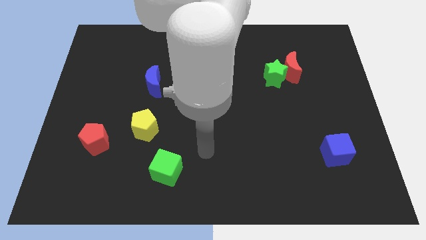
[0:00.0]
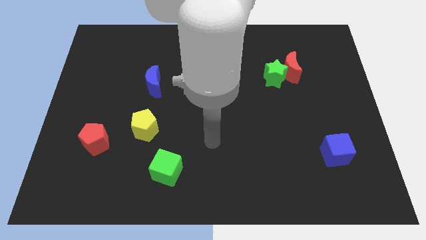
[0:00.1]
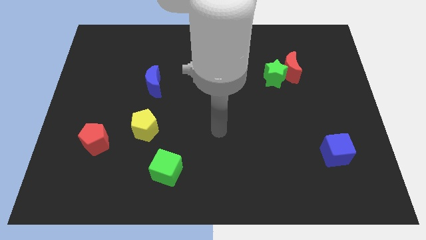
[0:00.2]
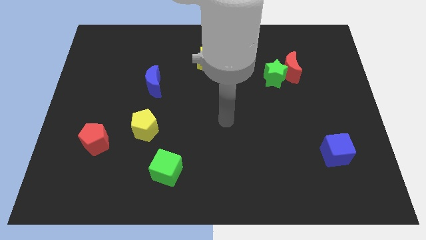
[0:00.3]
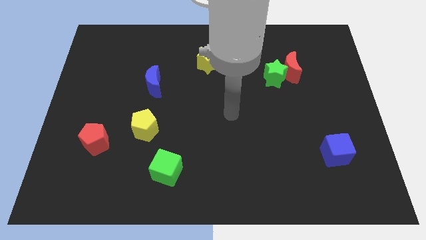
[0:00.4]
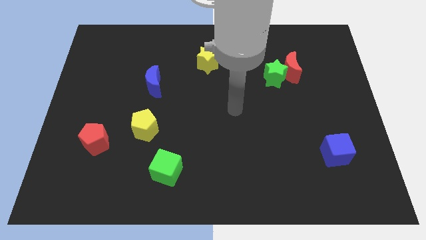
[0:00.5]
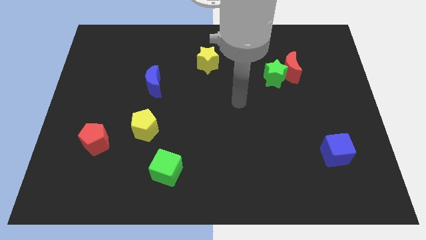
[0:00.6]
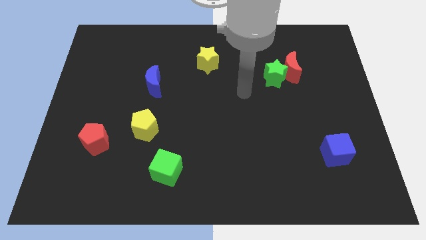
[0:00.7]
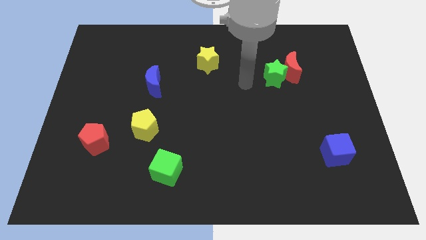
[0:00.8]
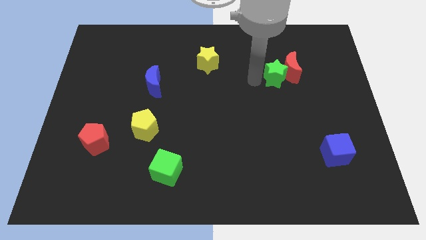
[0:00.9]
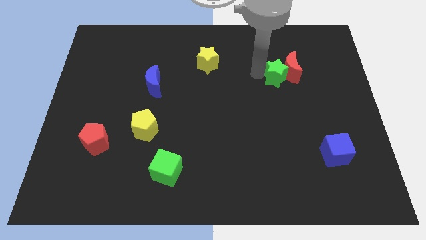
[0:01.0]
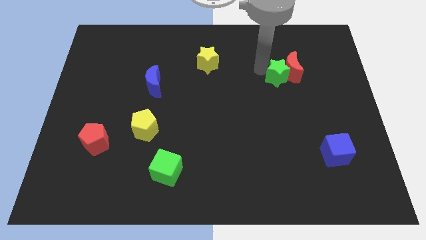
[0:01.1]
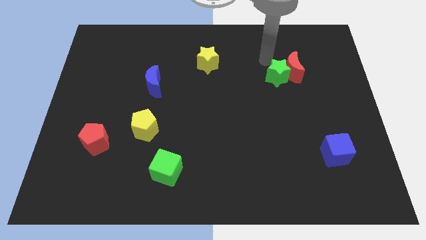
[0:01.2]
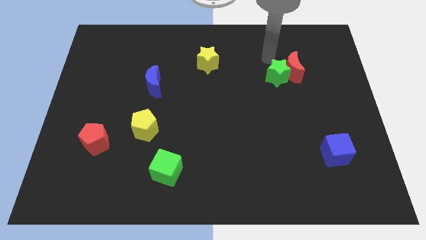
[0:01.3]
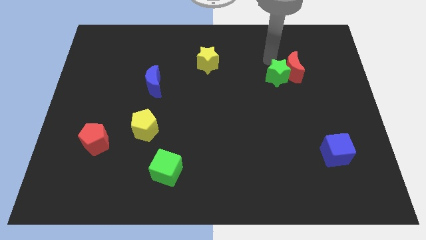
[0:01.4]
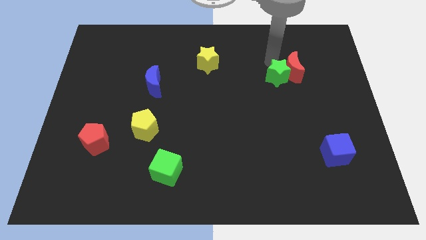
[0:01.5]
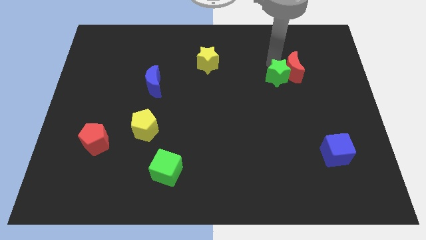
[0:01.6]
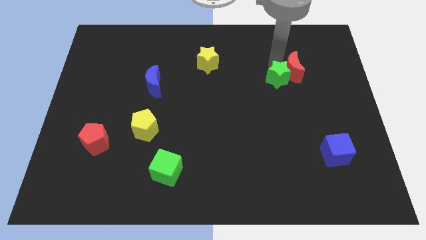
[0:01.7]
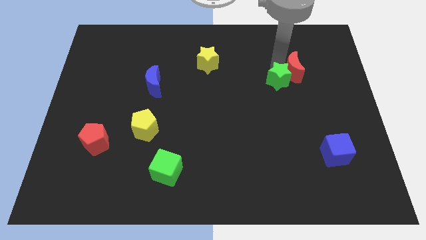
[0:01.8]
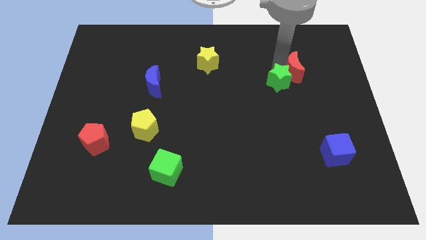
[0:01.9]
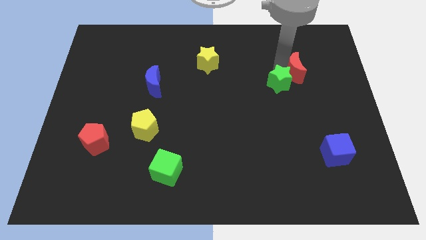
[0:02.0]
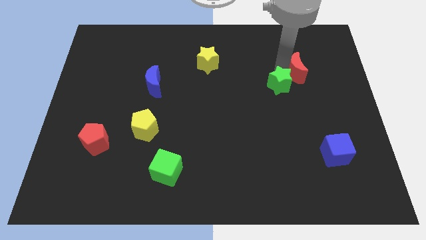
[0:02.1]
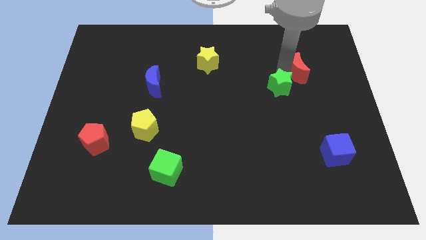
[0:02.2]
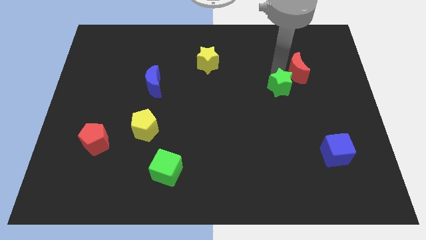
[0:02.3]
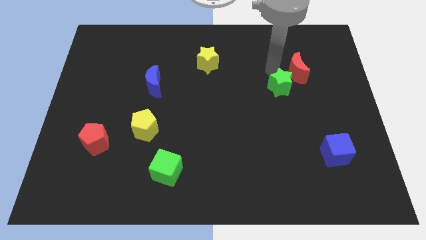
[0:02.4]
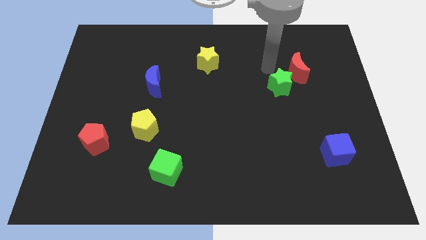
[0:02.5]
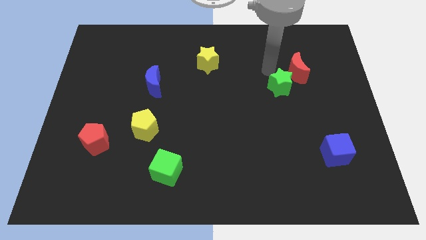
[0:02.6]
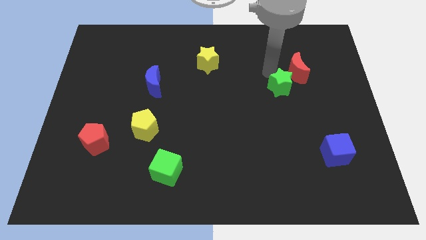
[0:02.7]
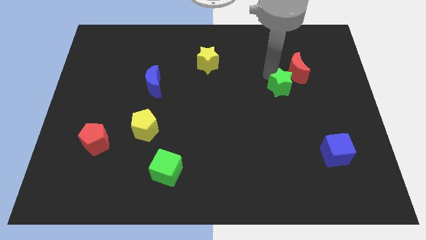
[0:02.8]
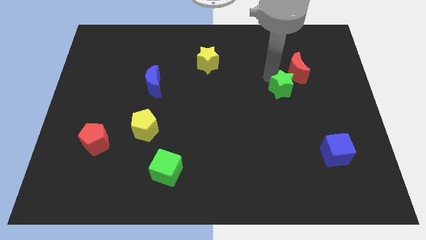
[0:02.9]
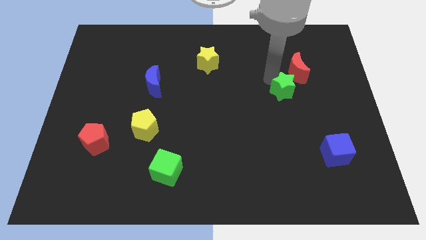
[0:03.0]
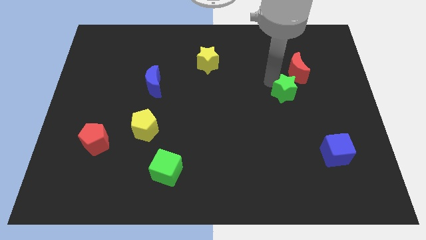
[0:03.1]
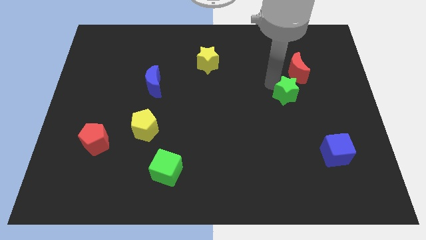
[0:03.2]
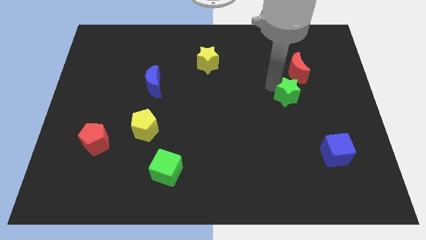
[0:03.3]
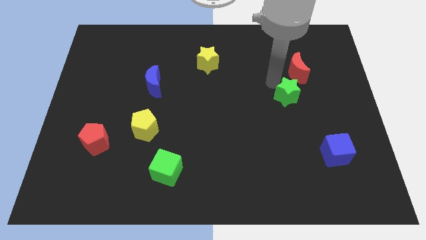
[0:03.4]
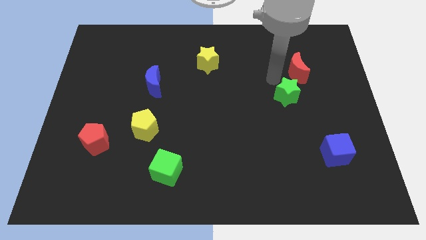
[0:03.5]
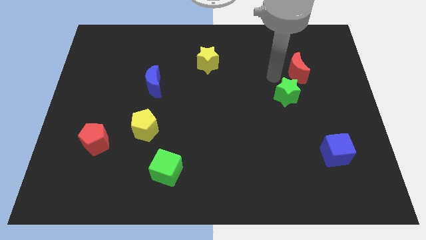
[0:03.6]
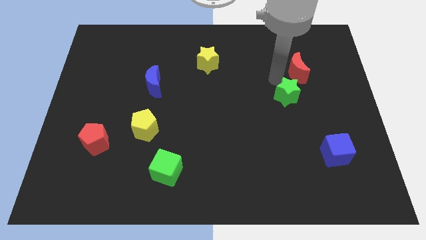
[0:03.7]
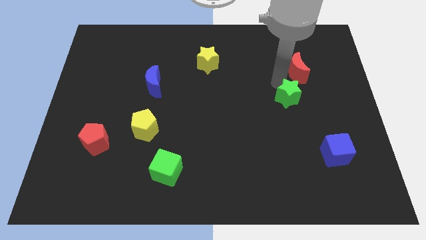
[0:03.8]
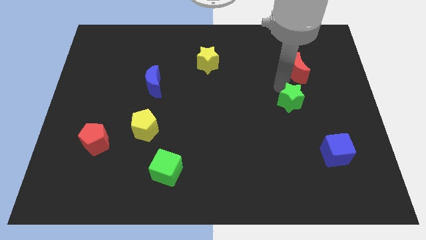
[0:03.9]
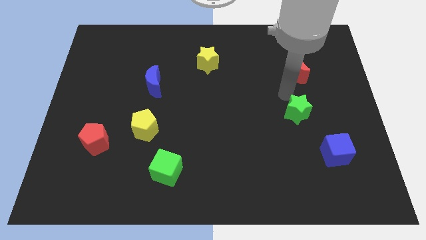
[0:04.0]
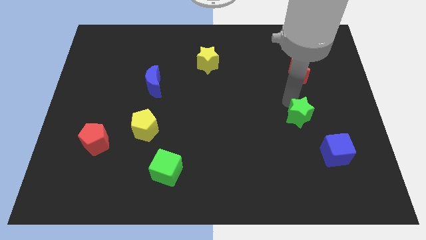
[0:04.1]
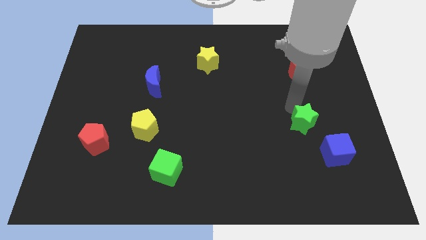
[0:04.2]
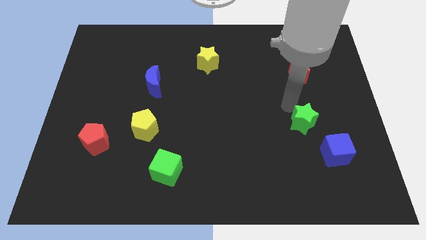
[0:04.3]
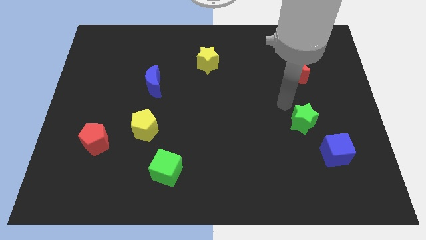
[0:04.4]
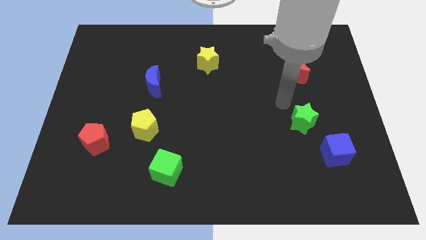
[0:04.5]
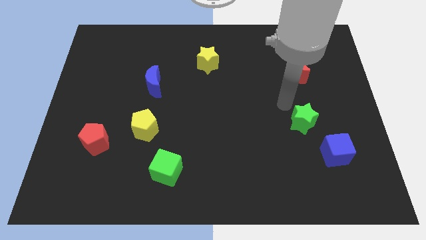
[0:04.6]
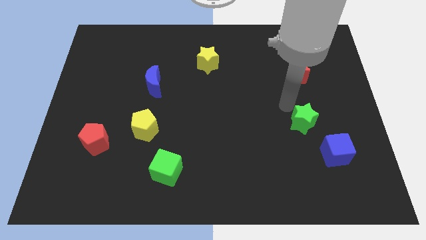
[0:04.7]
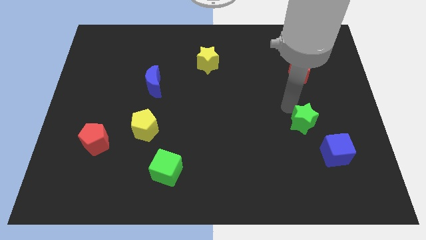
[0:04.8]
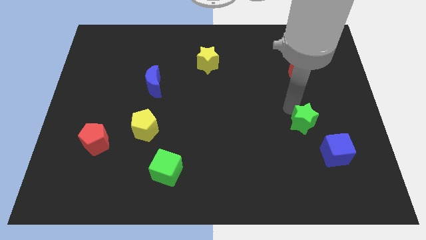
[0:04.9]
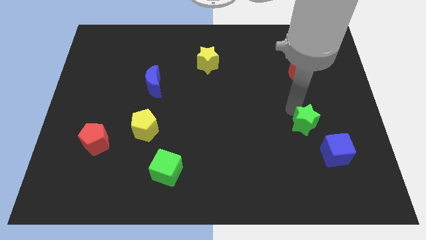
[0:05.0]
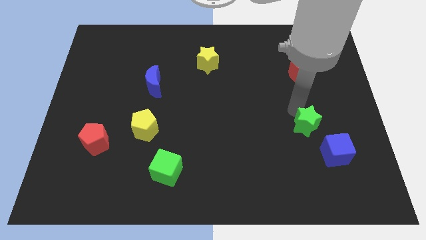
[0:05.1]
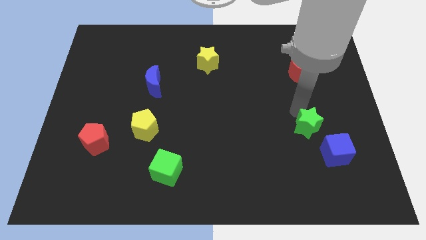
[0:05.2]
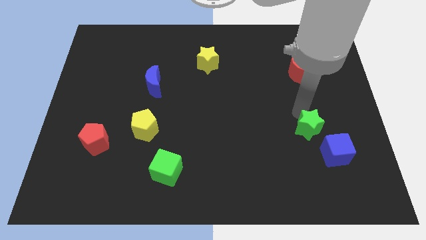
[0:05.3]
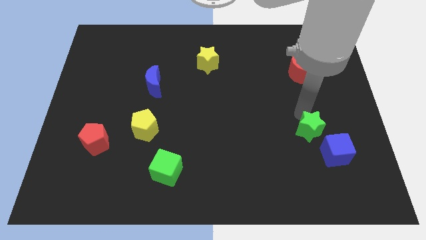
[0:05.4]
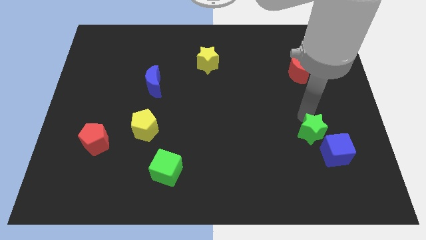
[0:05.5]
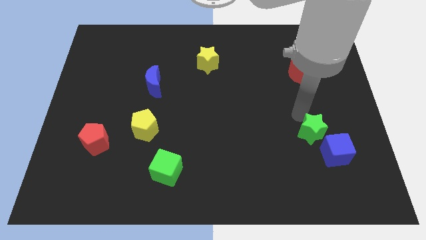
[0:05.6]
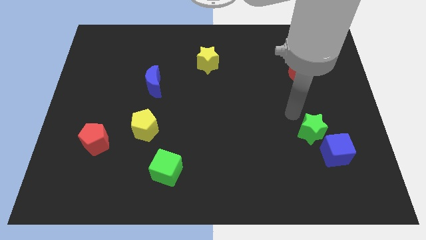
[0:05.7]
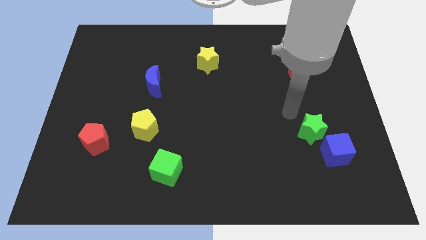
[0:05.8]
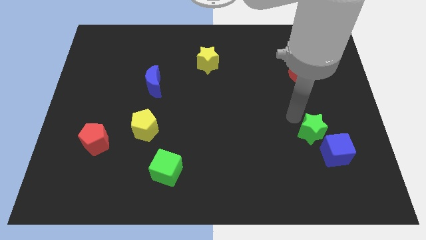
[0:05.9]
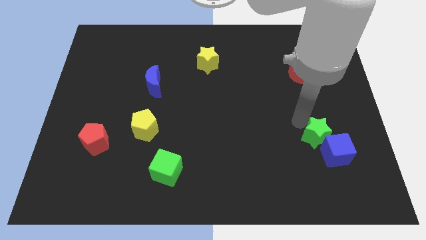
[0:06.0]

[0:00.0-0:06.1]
push the green star towards the blue cube

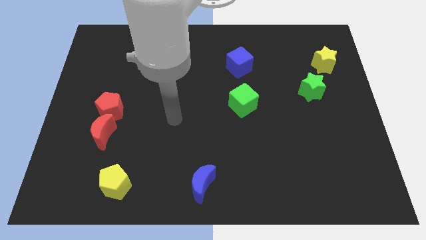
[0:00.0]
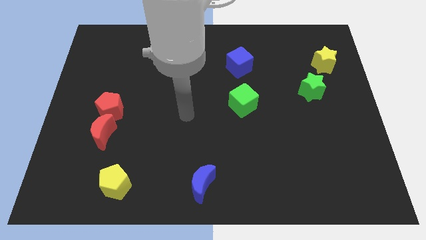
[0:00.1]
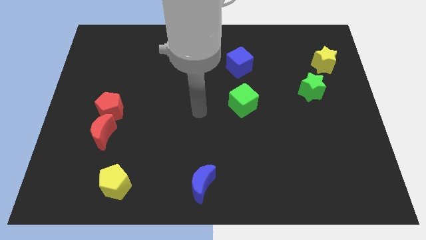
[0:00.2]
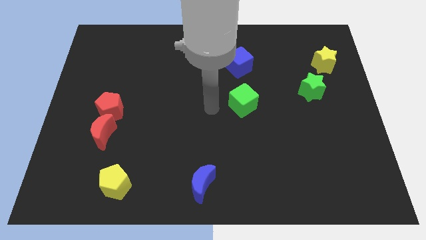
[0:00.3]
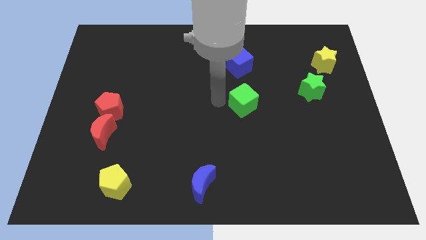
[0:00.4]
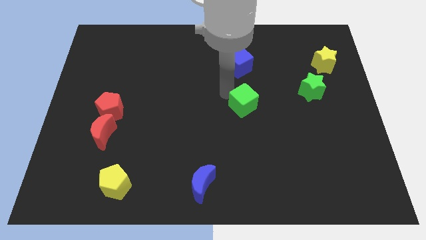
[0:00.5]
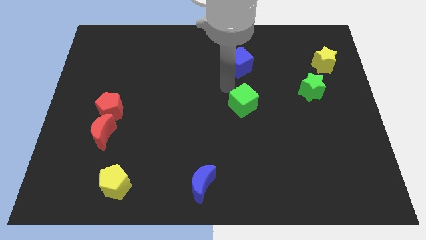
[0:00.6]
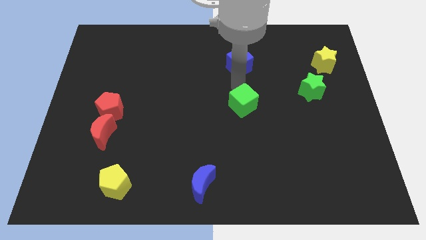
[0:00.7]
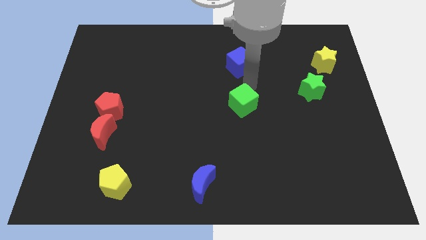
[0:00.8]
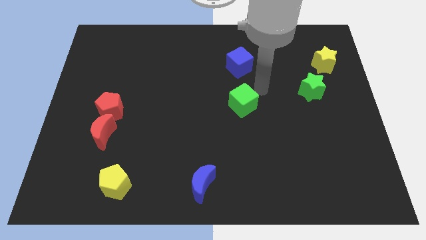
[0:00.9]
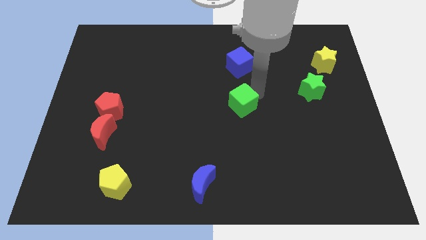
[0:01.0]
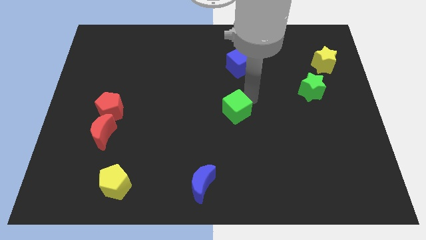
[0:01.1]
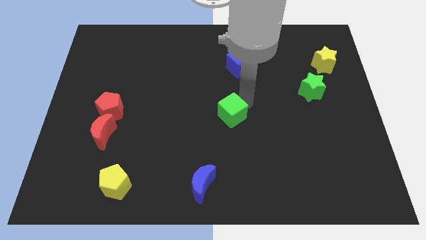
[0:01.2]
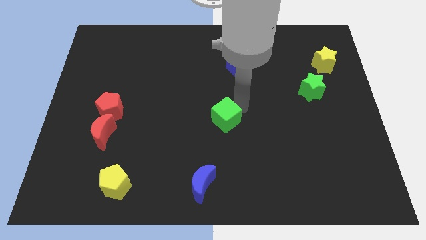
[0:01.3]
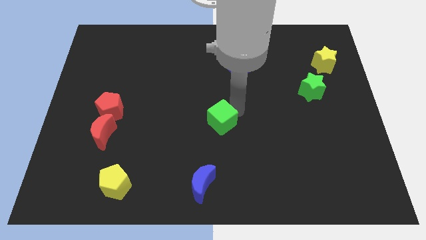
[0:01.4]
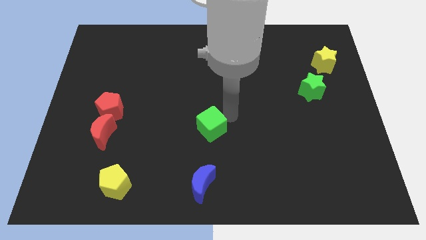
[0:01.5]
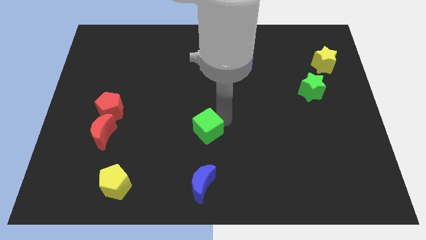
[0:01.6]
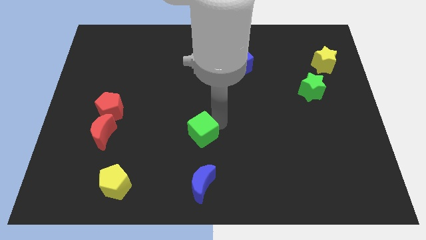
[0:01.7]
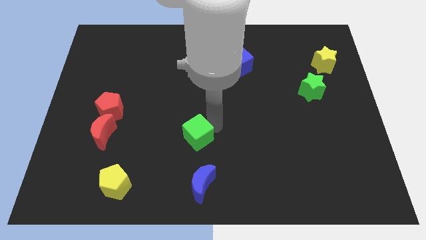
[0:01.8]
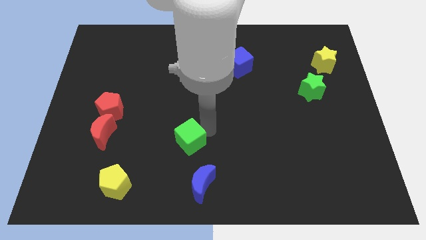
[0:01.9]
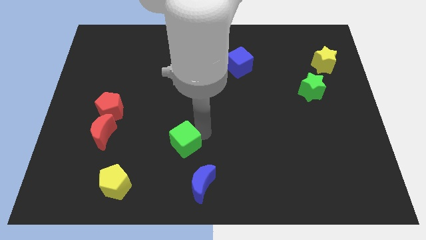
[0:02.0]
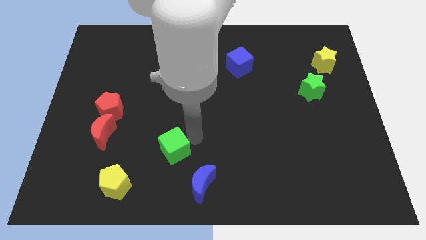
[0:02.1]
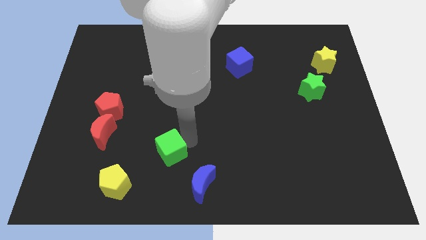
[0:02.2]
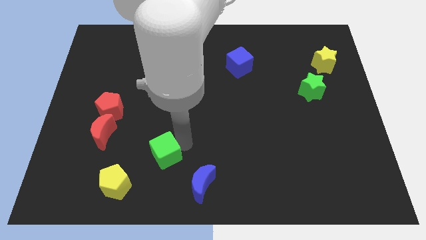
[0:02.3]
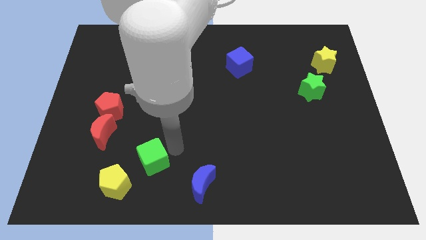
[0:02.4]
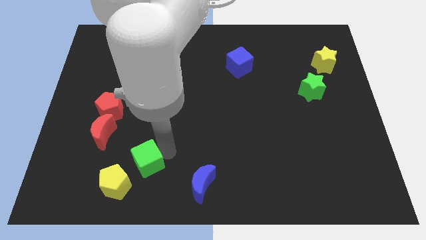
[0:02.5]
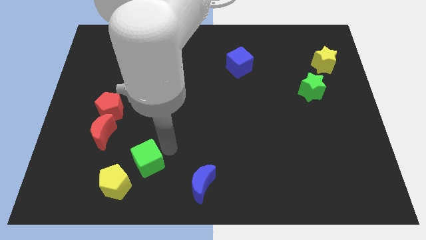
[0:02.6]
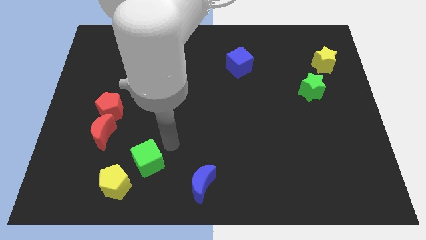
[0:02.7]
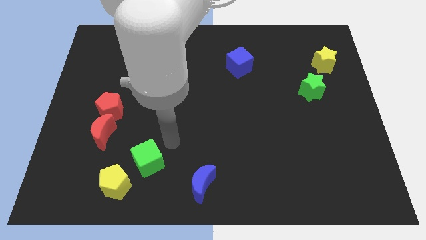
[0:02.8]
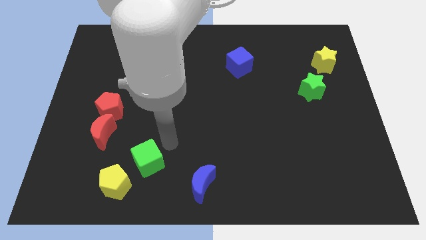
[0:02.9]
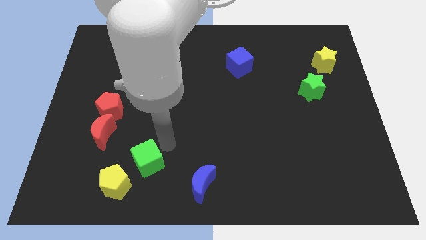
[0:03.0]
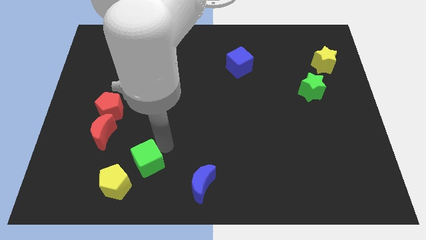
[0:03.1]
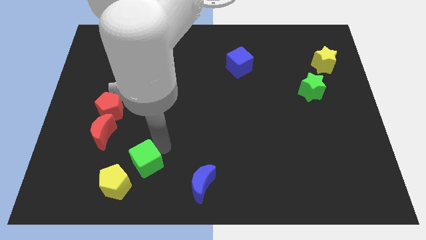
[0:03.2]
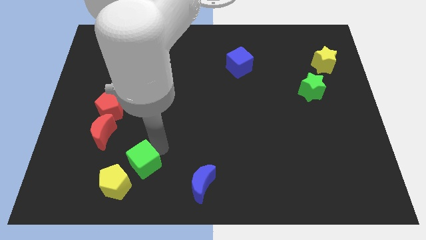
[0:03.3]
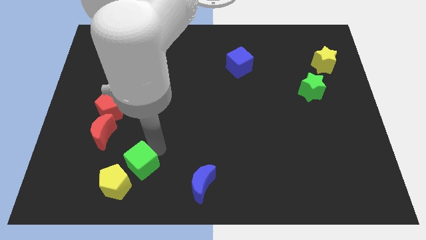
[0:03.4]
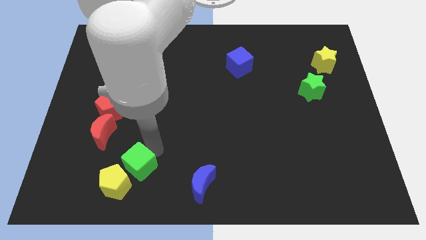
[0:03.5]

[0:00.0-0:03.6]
put the green cube next to the yellow pentagon
